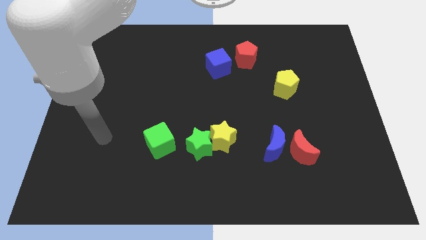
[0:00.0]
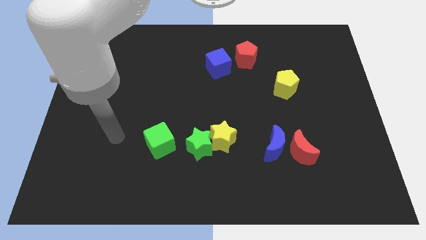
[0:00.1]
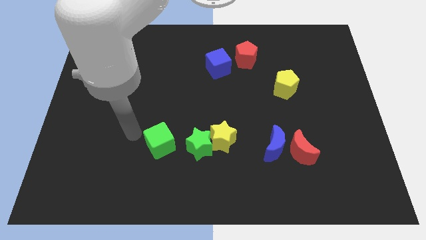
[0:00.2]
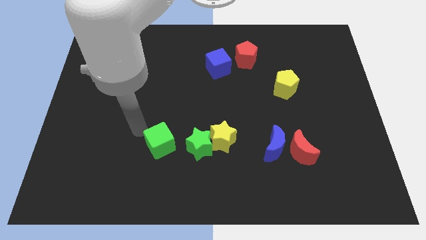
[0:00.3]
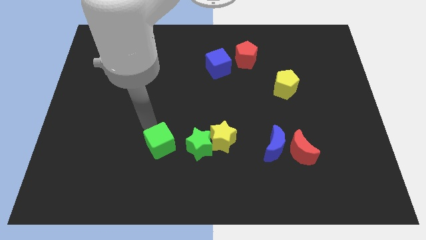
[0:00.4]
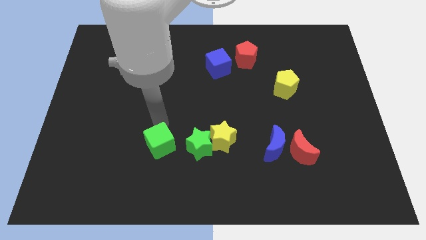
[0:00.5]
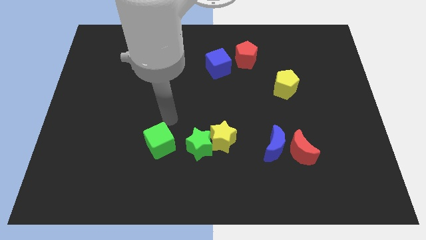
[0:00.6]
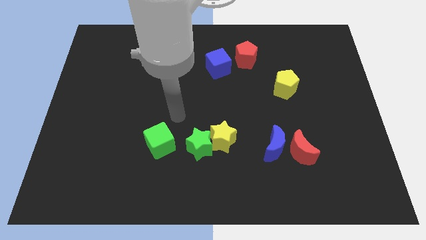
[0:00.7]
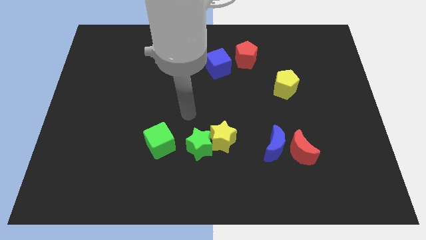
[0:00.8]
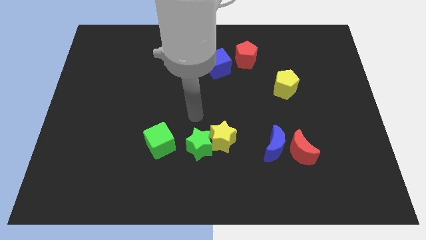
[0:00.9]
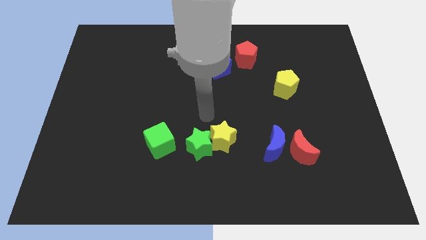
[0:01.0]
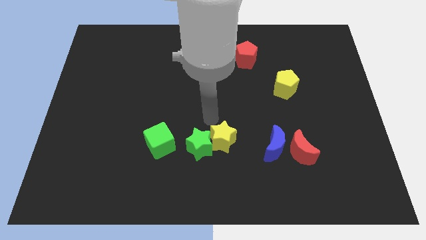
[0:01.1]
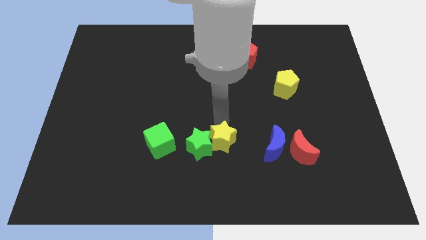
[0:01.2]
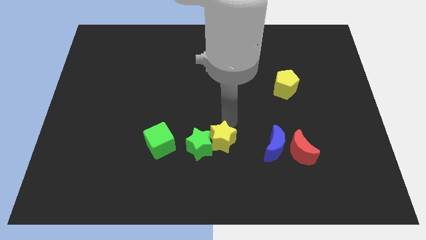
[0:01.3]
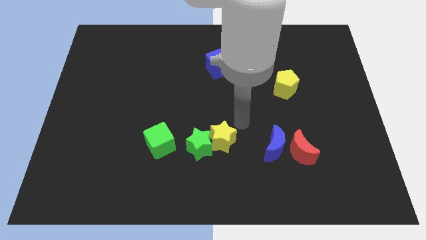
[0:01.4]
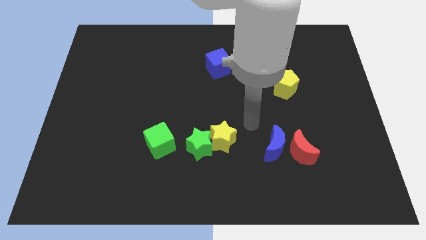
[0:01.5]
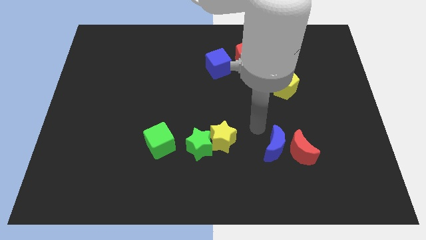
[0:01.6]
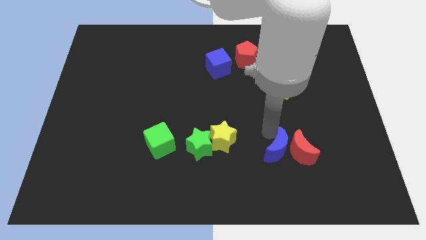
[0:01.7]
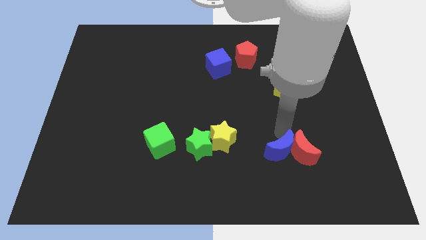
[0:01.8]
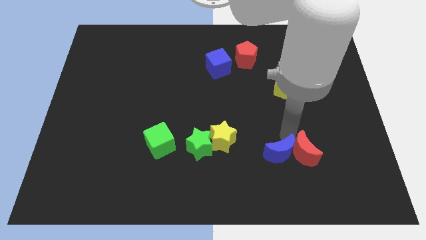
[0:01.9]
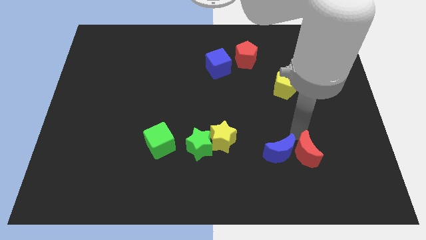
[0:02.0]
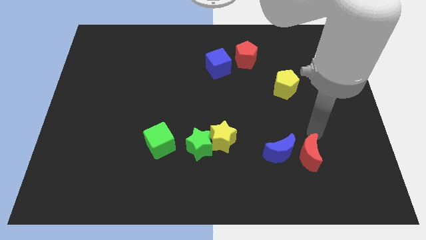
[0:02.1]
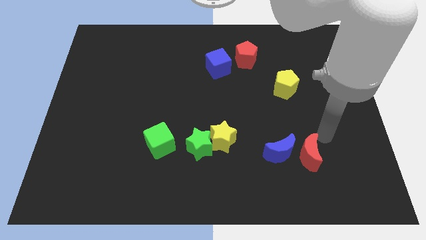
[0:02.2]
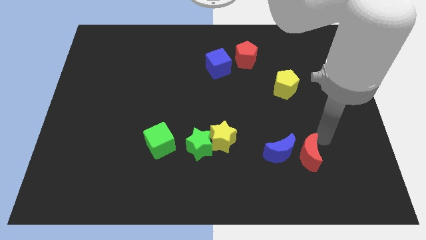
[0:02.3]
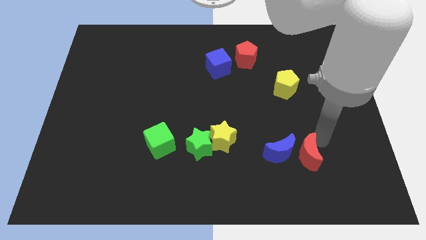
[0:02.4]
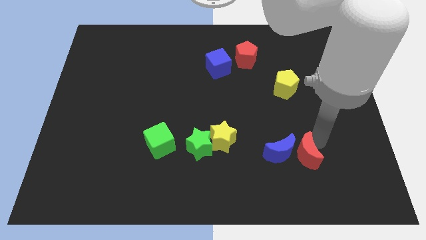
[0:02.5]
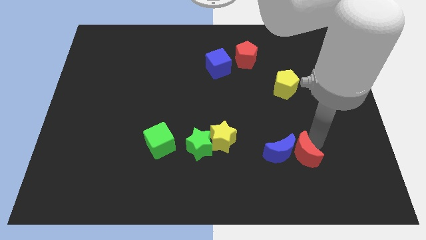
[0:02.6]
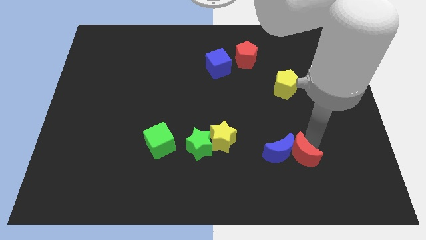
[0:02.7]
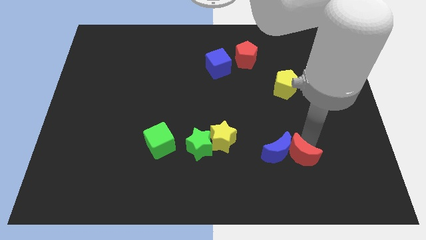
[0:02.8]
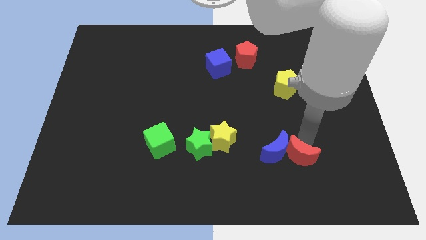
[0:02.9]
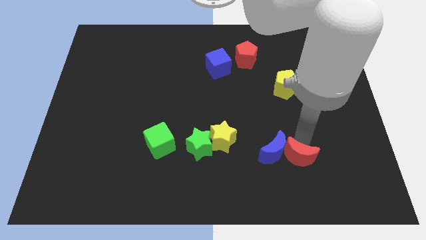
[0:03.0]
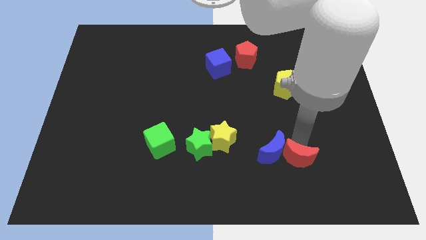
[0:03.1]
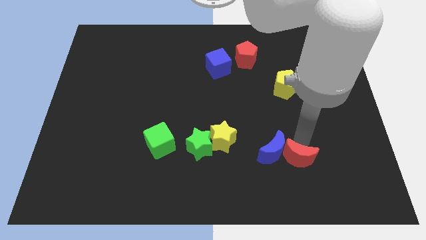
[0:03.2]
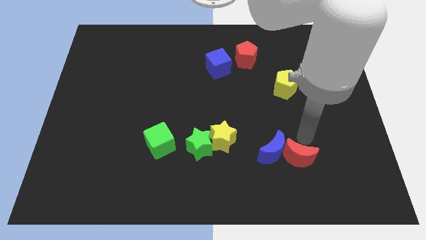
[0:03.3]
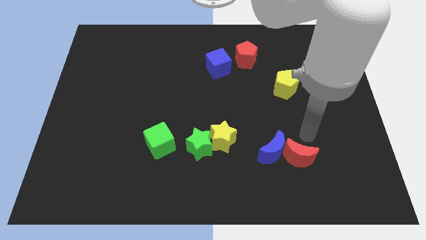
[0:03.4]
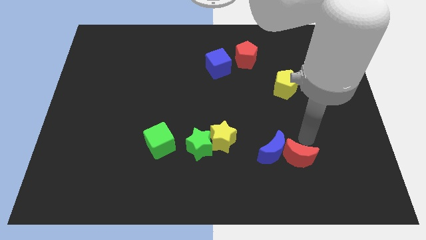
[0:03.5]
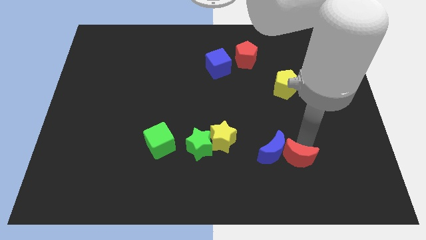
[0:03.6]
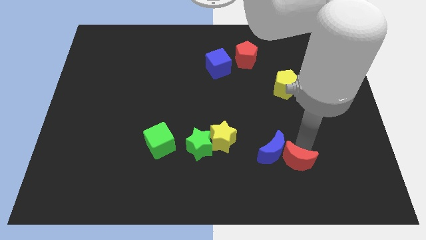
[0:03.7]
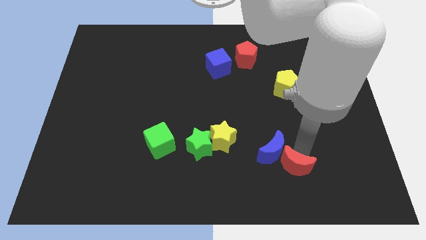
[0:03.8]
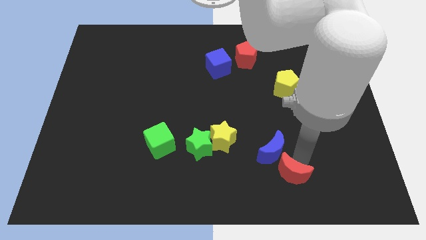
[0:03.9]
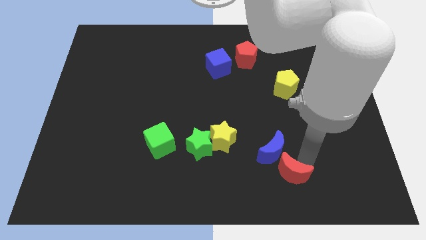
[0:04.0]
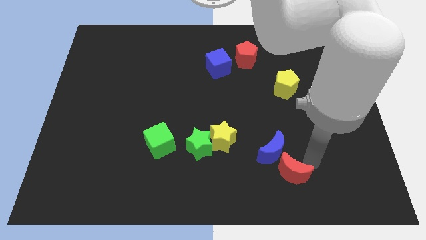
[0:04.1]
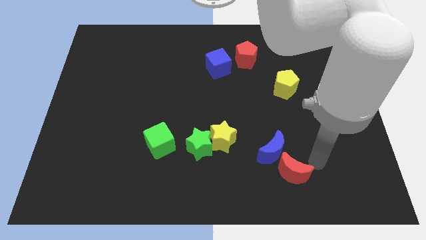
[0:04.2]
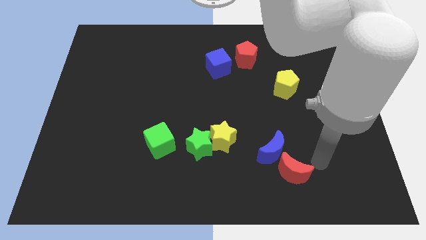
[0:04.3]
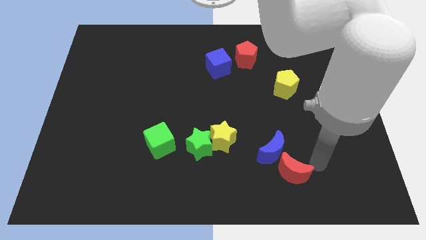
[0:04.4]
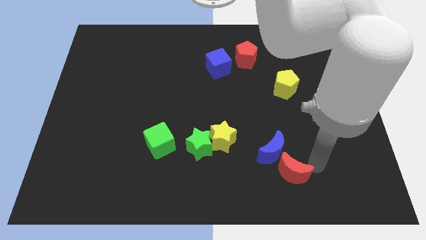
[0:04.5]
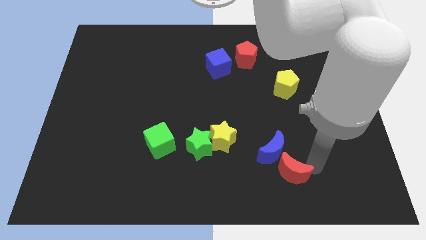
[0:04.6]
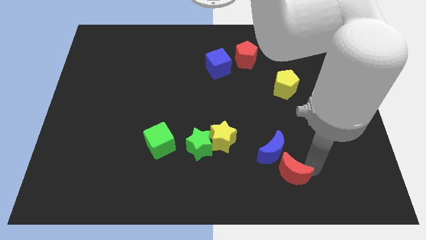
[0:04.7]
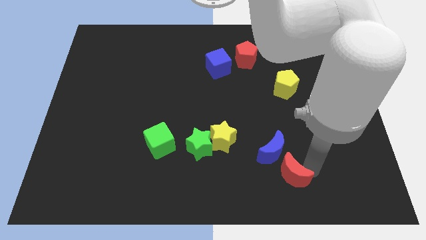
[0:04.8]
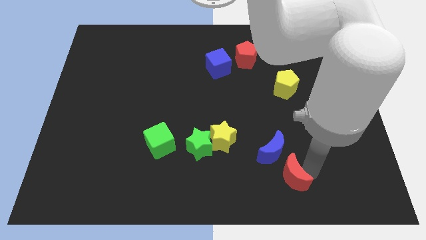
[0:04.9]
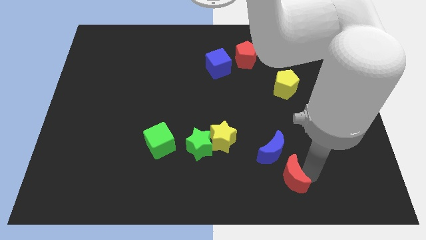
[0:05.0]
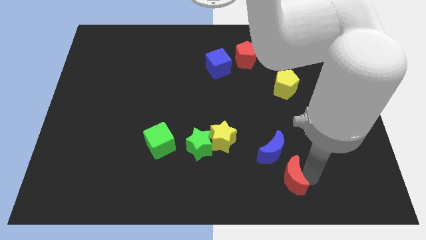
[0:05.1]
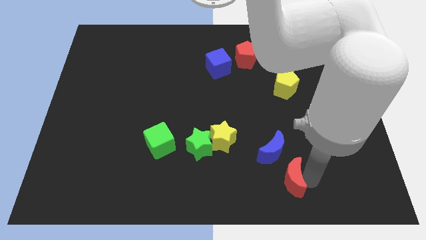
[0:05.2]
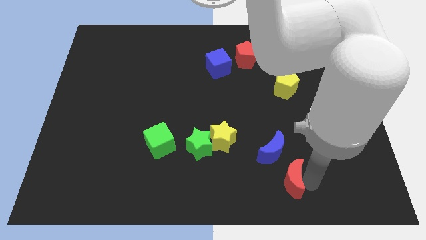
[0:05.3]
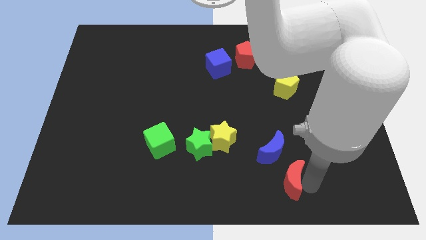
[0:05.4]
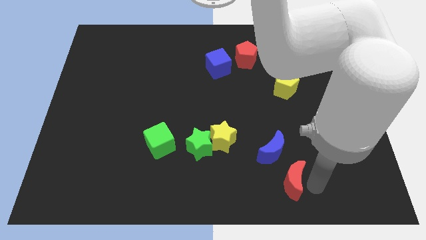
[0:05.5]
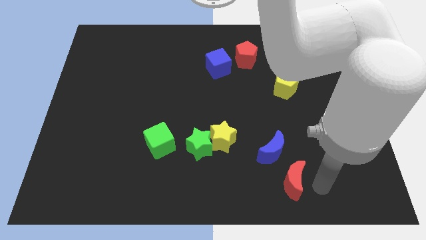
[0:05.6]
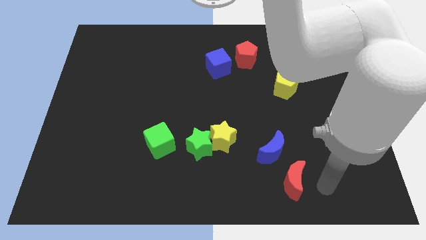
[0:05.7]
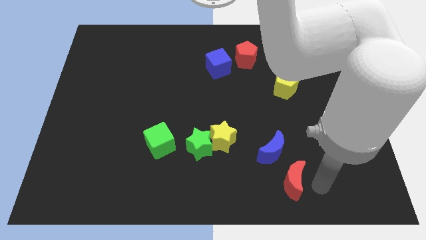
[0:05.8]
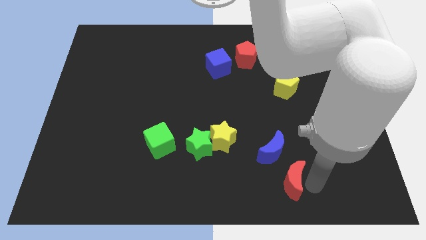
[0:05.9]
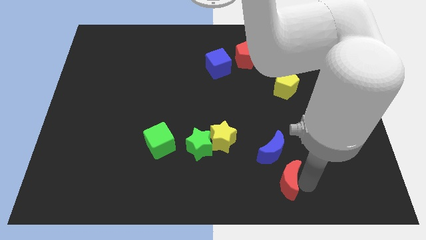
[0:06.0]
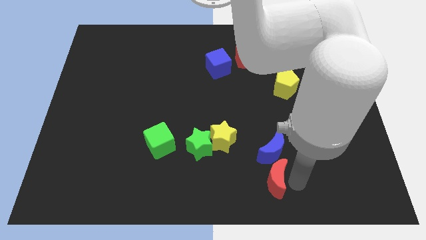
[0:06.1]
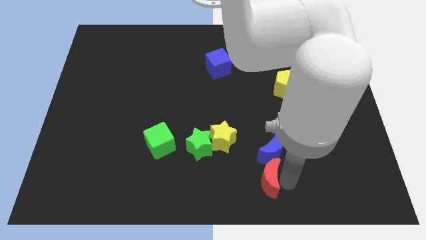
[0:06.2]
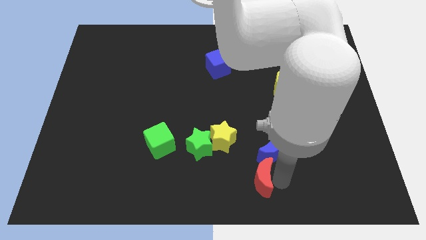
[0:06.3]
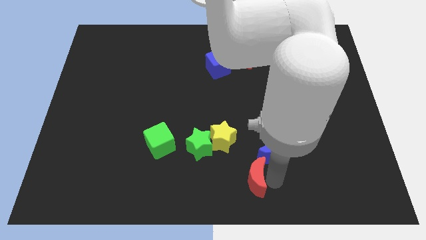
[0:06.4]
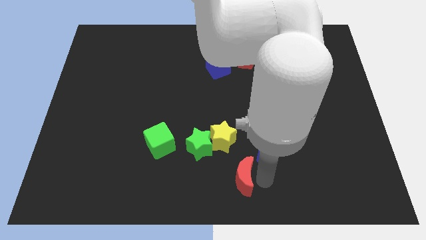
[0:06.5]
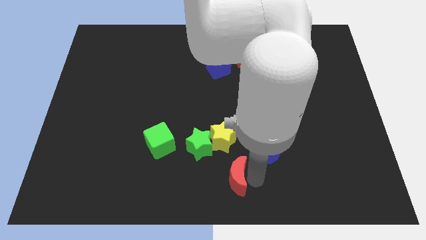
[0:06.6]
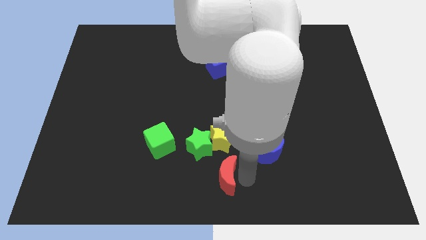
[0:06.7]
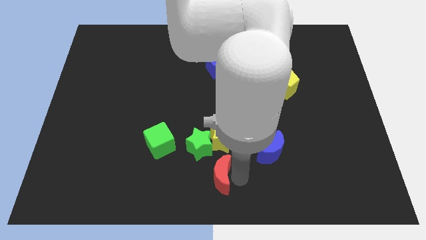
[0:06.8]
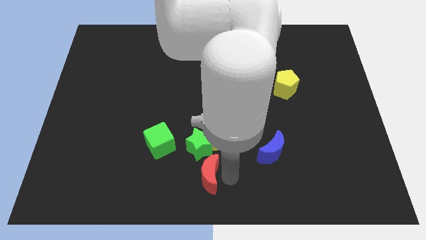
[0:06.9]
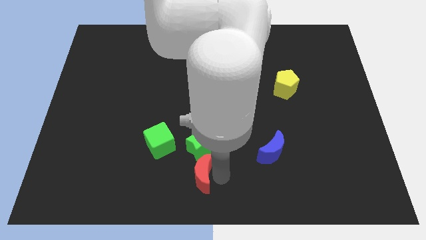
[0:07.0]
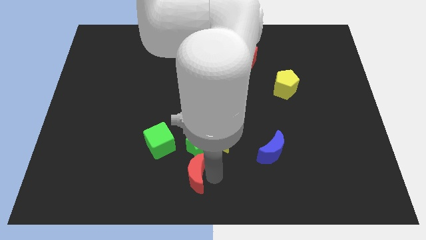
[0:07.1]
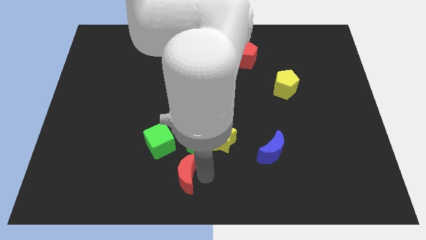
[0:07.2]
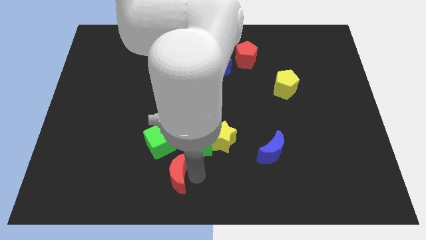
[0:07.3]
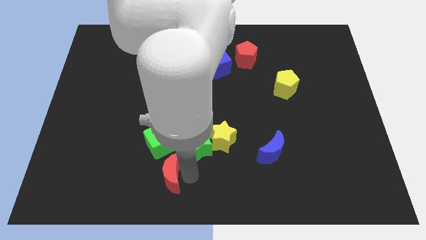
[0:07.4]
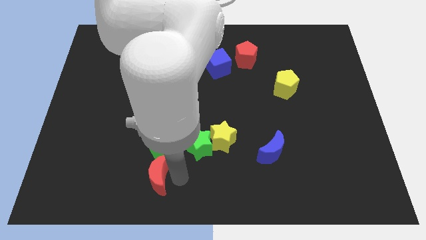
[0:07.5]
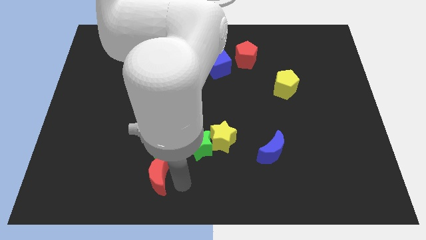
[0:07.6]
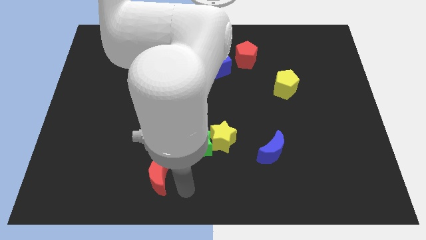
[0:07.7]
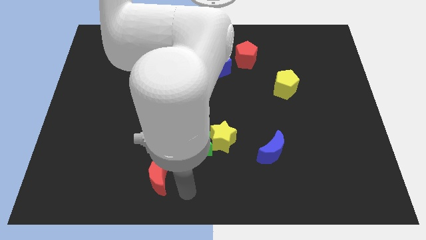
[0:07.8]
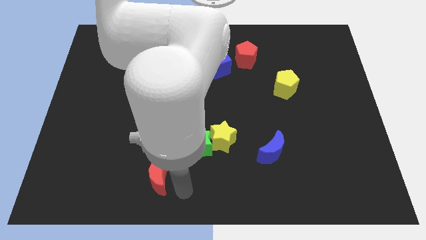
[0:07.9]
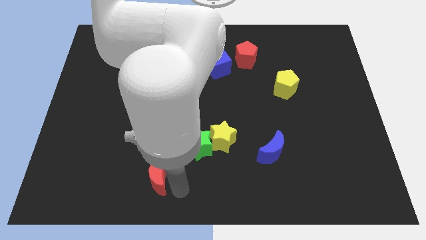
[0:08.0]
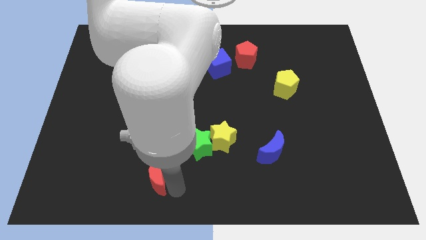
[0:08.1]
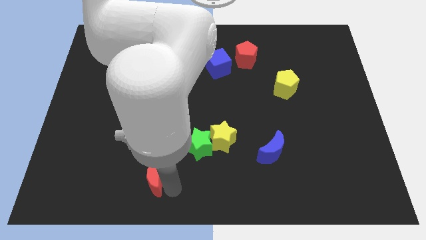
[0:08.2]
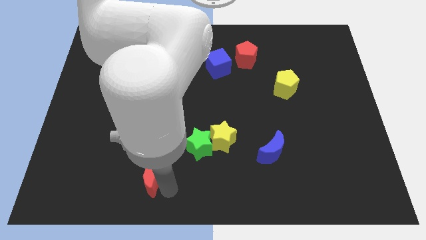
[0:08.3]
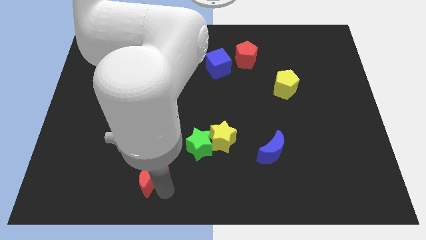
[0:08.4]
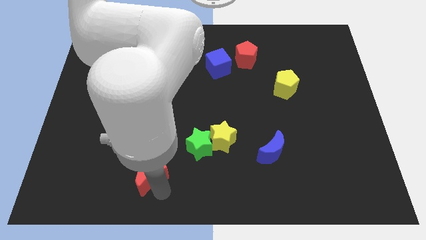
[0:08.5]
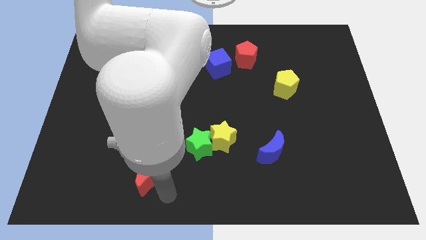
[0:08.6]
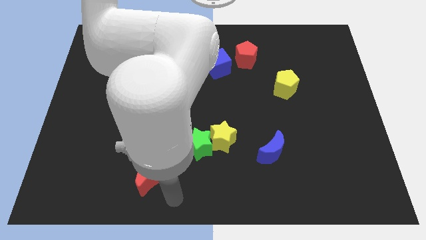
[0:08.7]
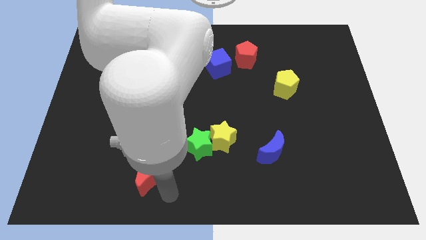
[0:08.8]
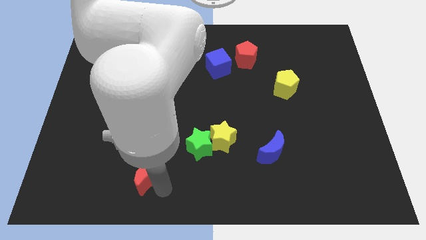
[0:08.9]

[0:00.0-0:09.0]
move the red moon diagonally down and to the left of the green cube
